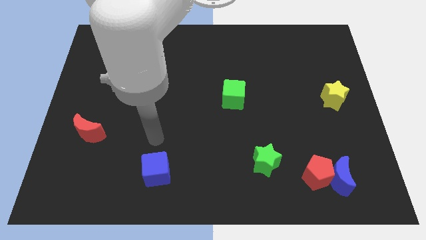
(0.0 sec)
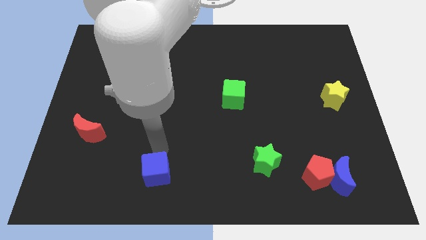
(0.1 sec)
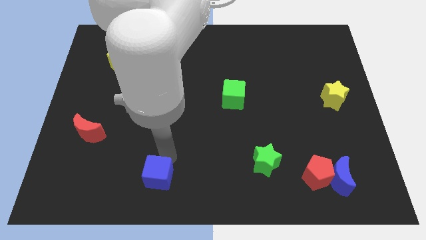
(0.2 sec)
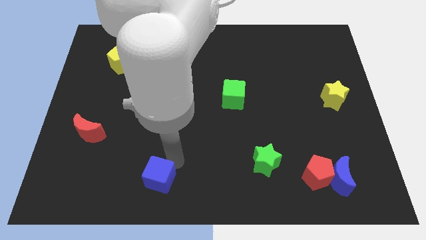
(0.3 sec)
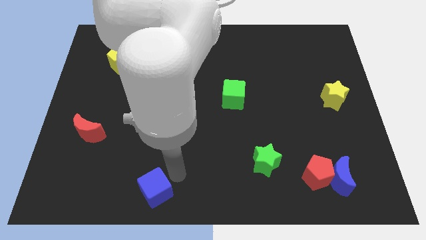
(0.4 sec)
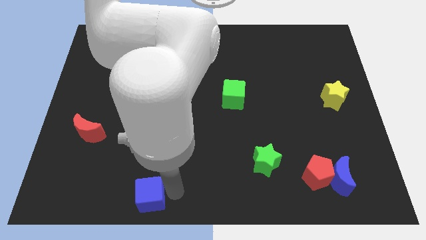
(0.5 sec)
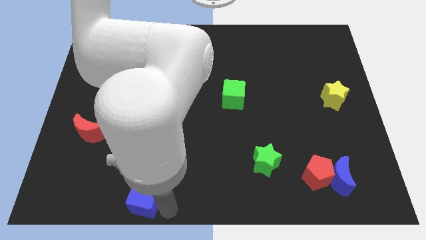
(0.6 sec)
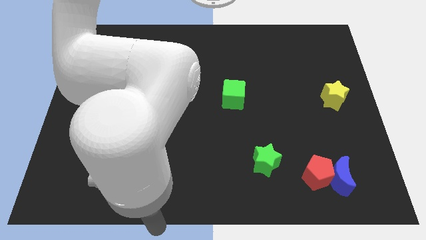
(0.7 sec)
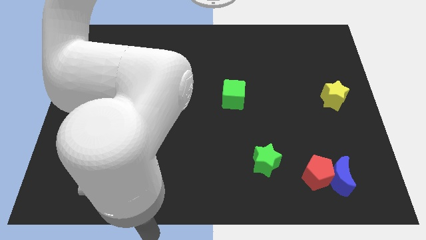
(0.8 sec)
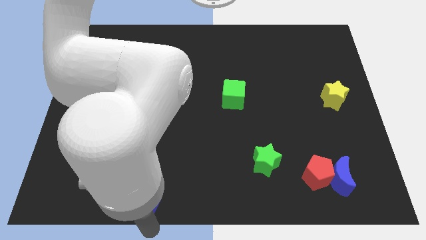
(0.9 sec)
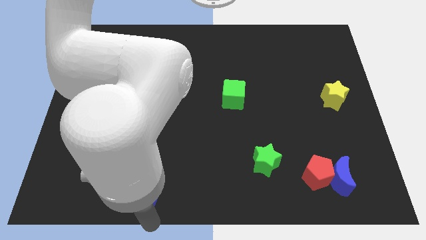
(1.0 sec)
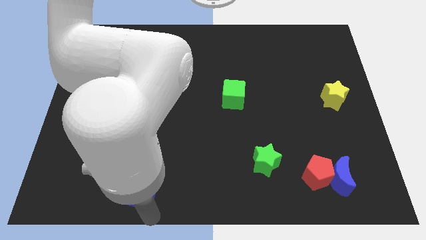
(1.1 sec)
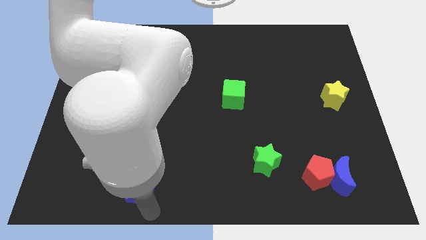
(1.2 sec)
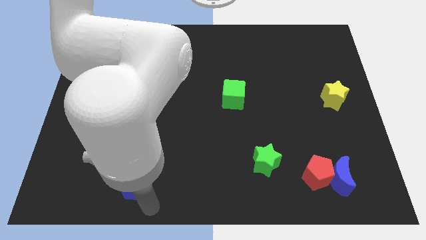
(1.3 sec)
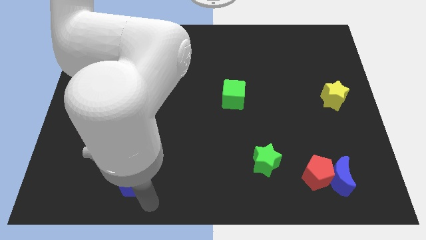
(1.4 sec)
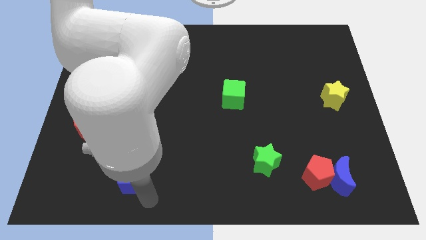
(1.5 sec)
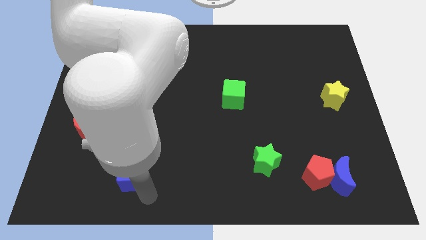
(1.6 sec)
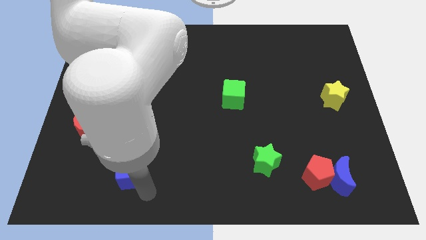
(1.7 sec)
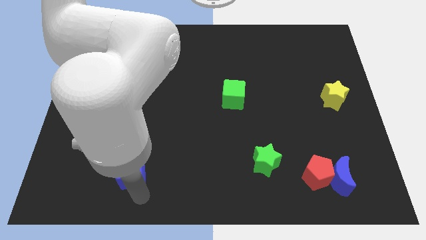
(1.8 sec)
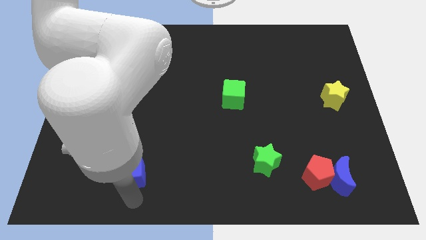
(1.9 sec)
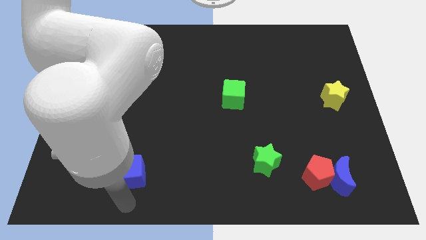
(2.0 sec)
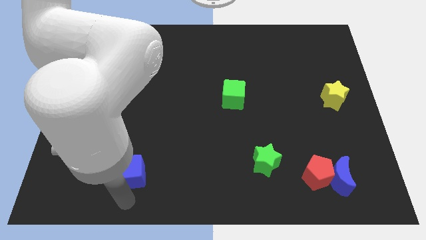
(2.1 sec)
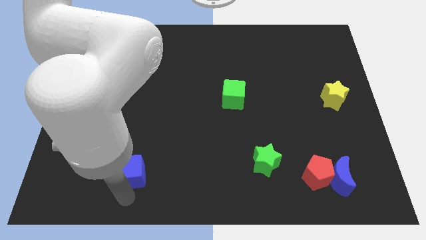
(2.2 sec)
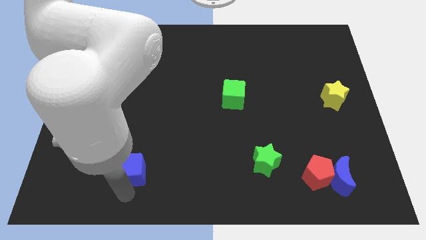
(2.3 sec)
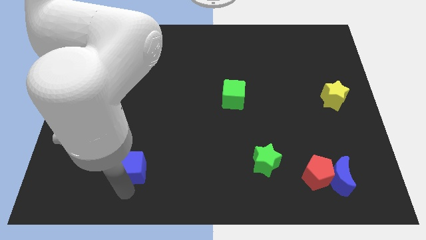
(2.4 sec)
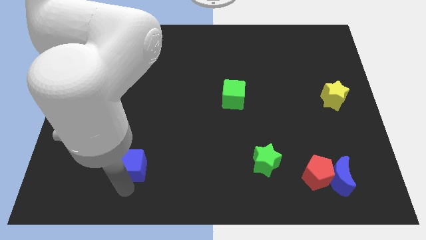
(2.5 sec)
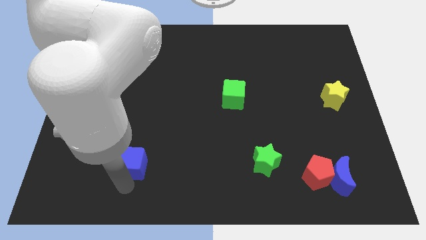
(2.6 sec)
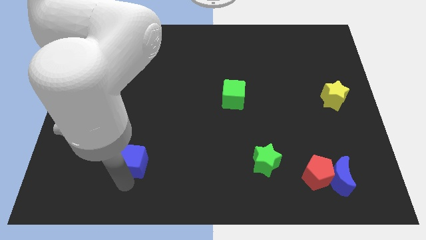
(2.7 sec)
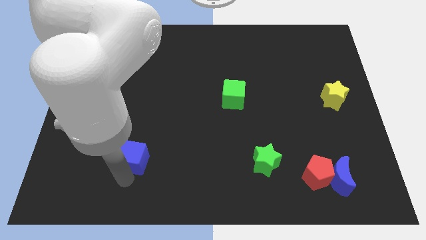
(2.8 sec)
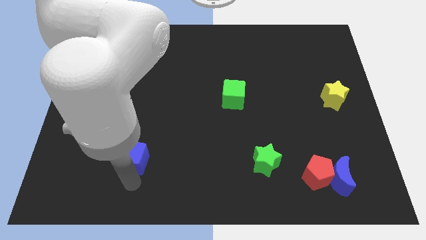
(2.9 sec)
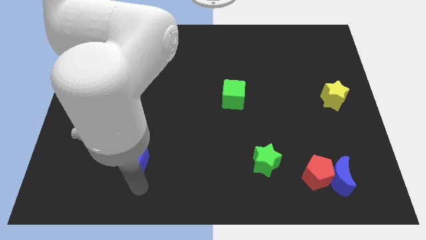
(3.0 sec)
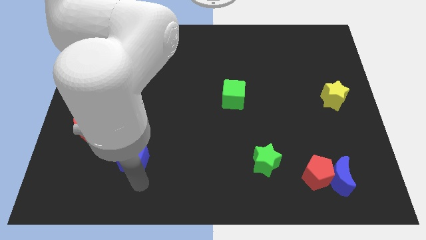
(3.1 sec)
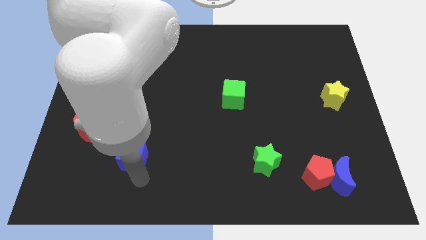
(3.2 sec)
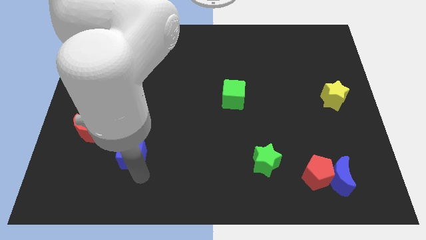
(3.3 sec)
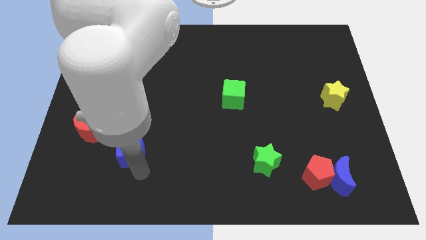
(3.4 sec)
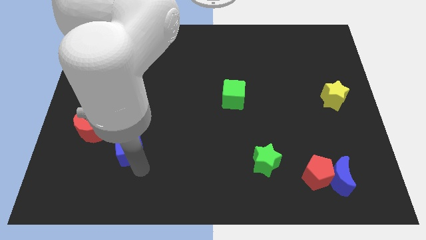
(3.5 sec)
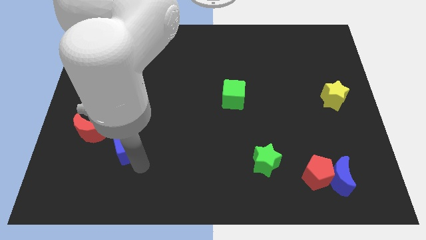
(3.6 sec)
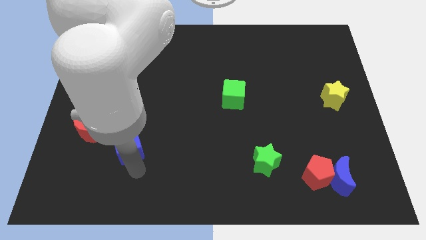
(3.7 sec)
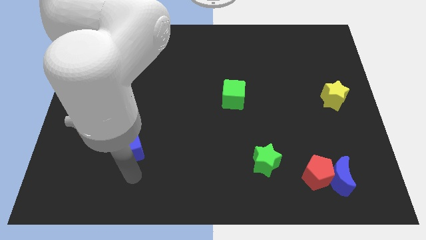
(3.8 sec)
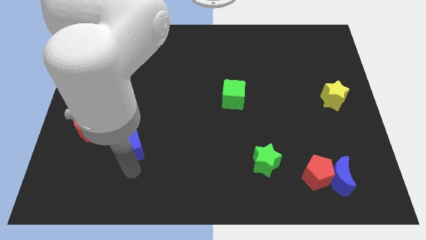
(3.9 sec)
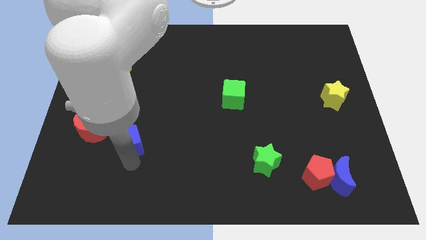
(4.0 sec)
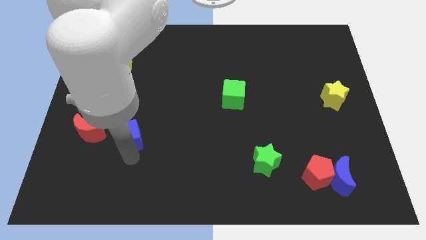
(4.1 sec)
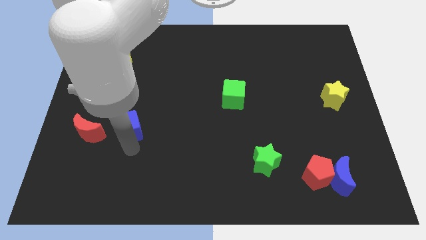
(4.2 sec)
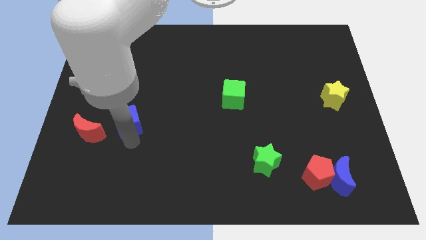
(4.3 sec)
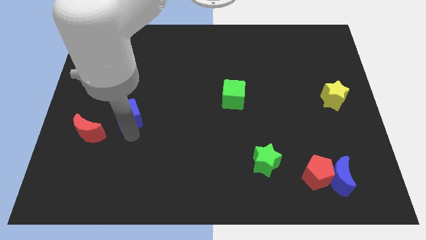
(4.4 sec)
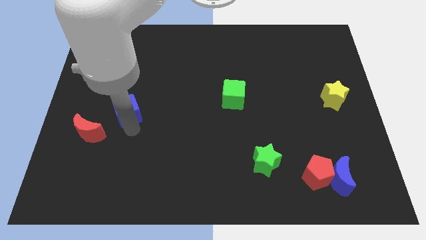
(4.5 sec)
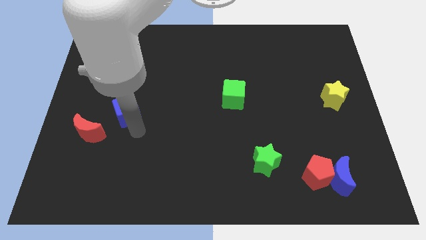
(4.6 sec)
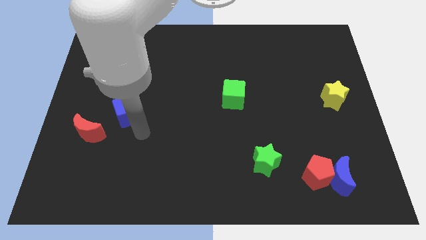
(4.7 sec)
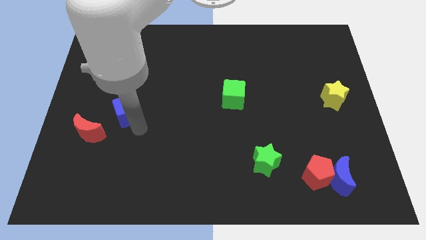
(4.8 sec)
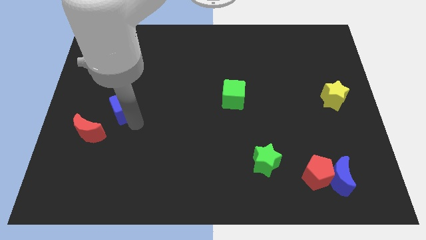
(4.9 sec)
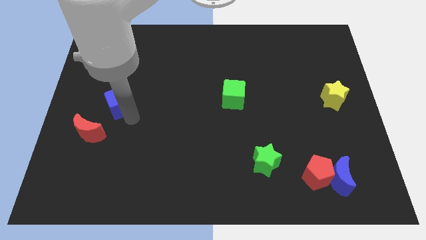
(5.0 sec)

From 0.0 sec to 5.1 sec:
slide the blue cube to the bottom of the yellow pentagon

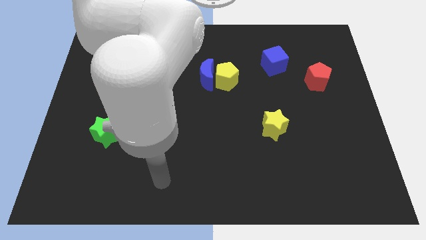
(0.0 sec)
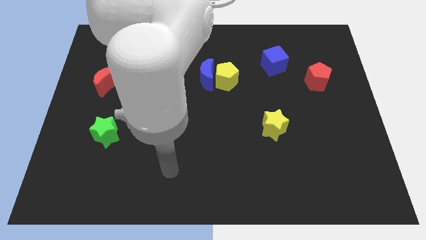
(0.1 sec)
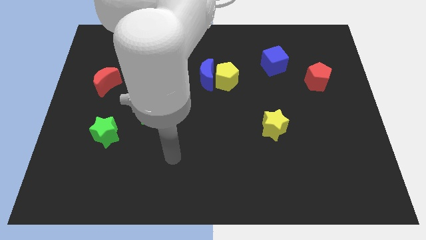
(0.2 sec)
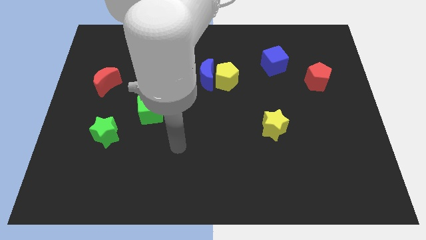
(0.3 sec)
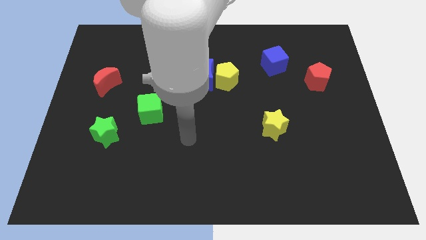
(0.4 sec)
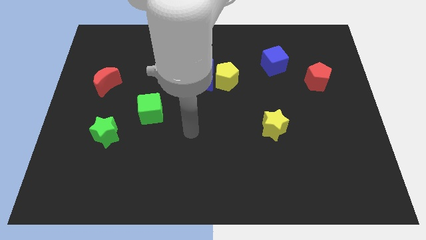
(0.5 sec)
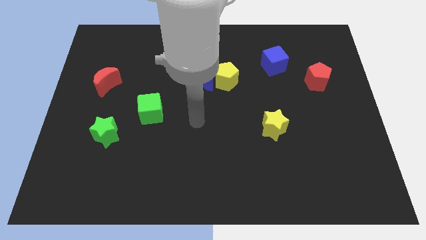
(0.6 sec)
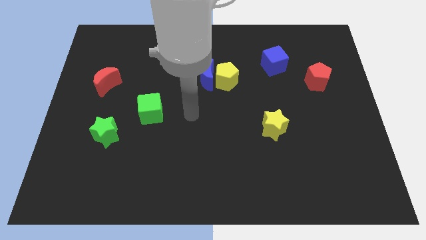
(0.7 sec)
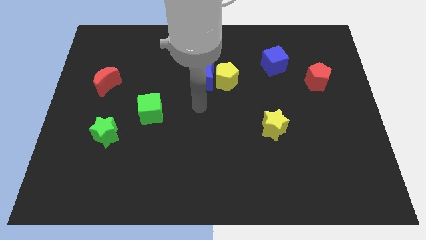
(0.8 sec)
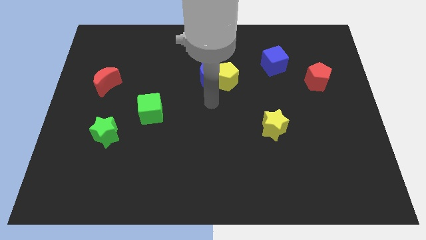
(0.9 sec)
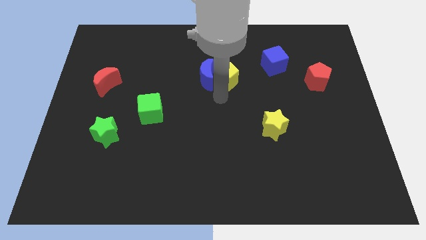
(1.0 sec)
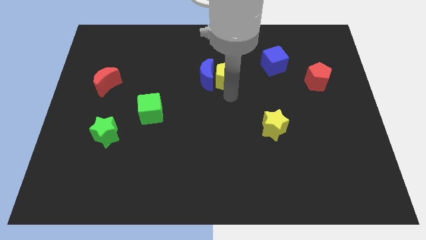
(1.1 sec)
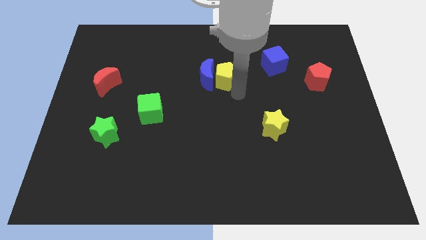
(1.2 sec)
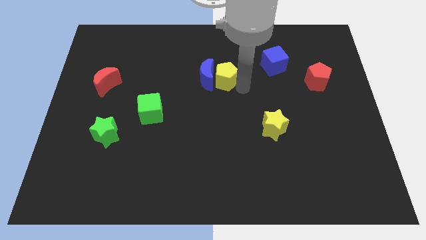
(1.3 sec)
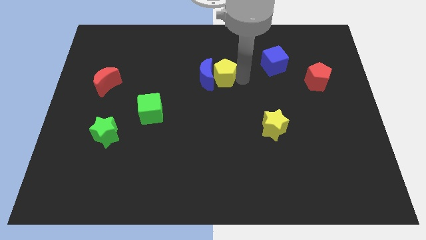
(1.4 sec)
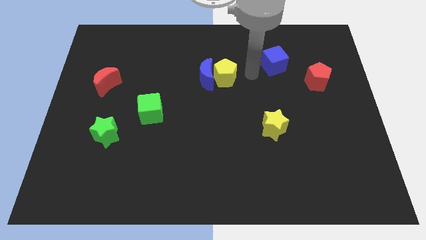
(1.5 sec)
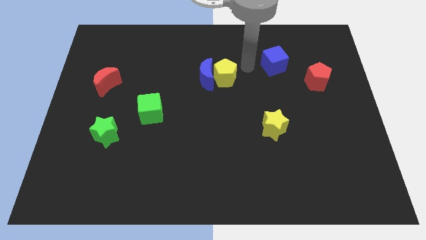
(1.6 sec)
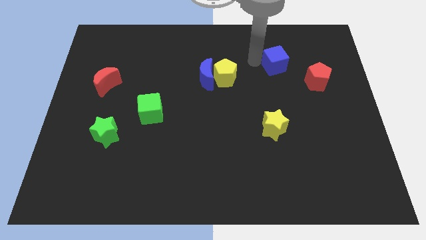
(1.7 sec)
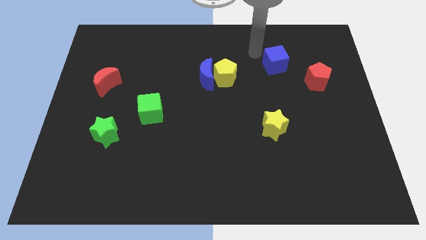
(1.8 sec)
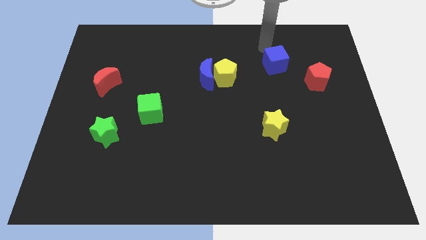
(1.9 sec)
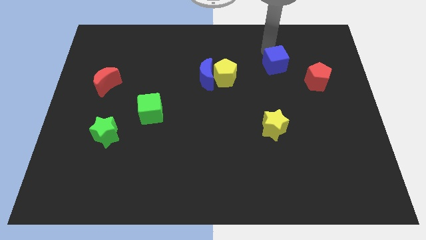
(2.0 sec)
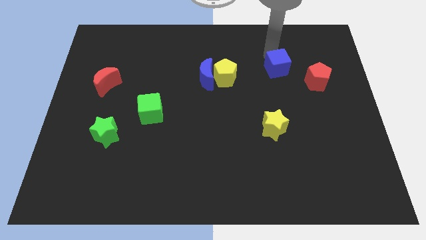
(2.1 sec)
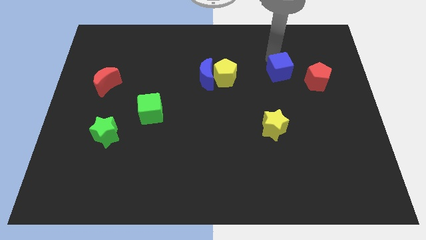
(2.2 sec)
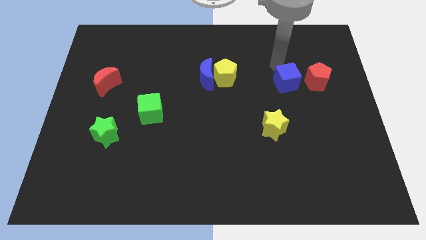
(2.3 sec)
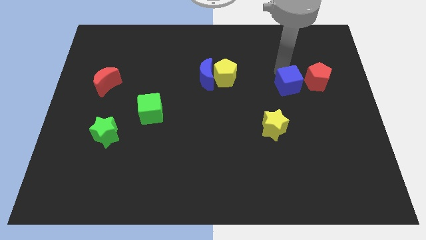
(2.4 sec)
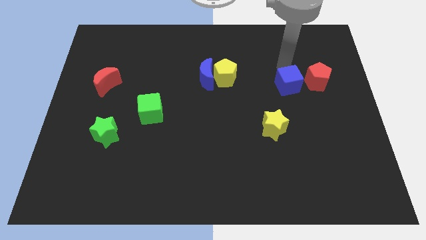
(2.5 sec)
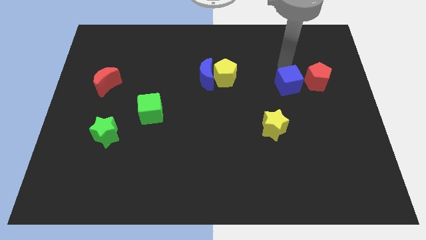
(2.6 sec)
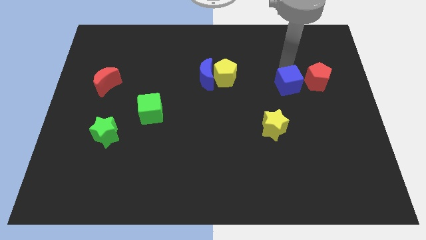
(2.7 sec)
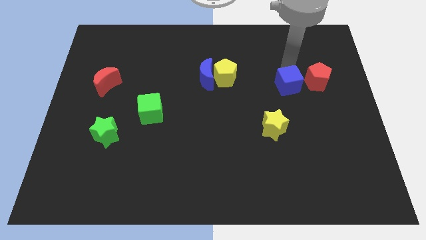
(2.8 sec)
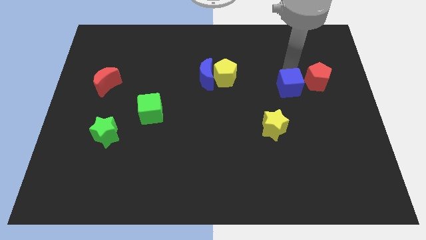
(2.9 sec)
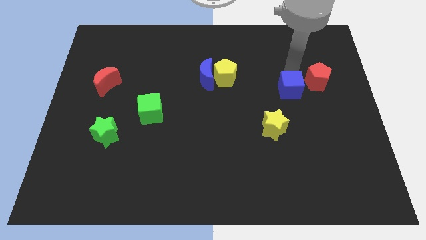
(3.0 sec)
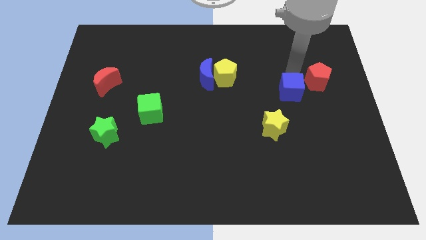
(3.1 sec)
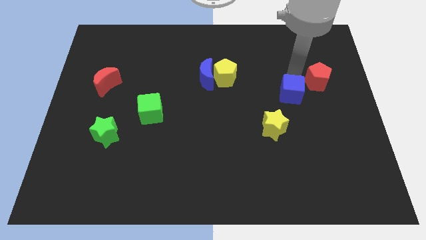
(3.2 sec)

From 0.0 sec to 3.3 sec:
put the blue cube to the top right side of the yellow star
